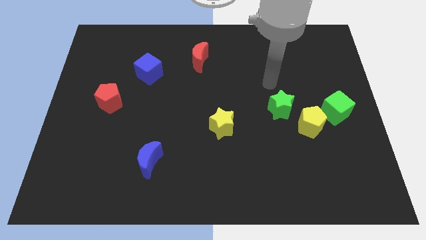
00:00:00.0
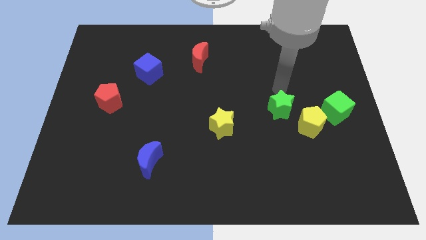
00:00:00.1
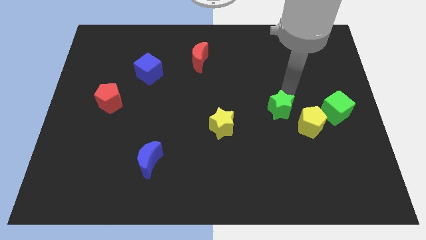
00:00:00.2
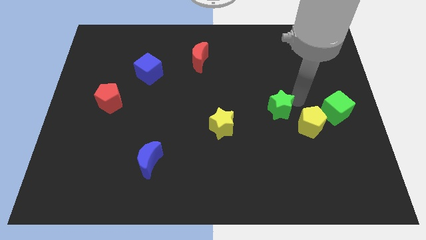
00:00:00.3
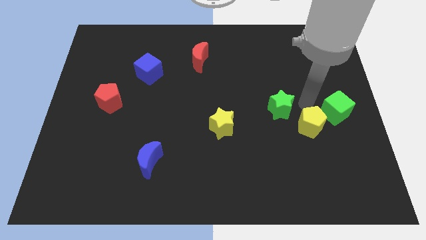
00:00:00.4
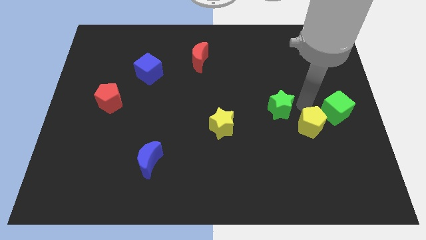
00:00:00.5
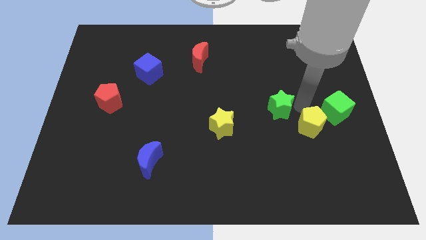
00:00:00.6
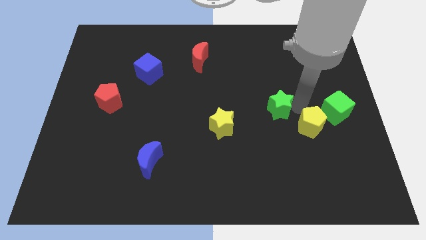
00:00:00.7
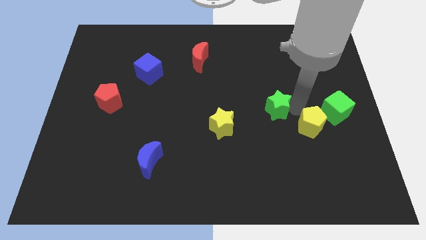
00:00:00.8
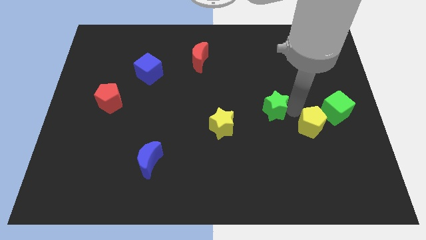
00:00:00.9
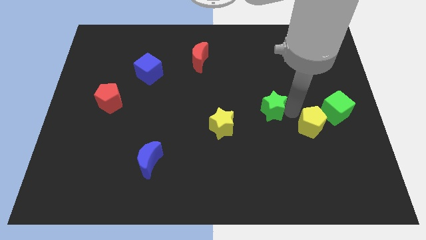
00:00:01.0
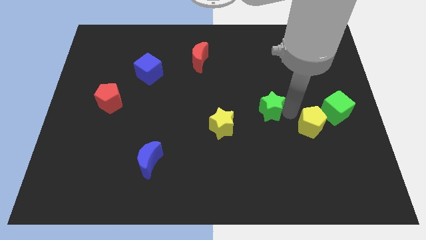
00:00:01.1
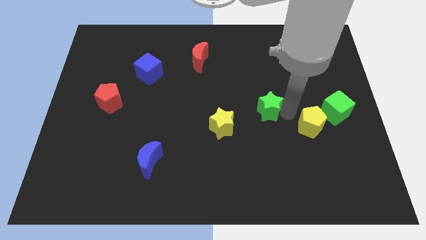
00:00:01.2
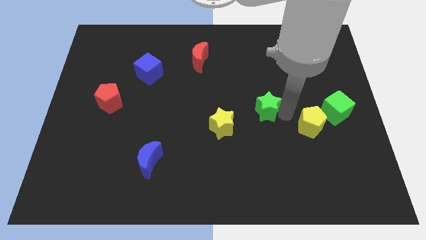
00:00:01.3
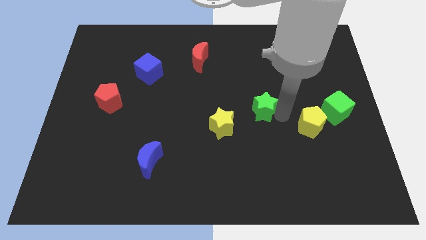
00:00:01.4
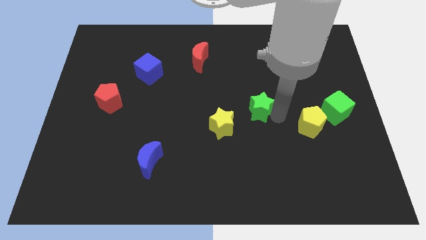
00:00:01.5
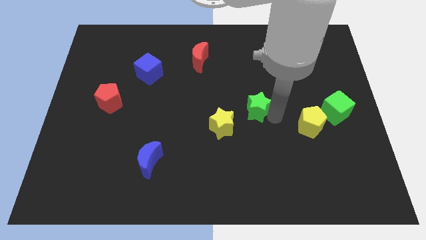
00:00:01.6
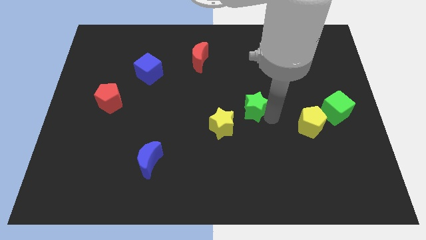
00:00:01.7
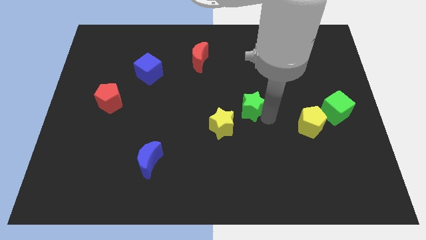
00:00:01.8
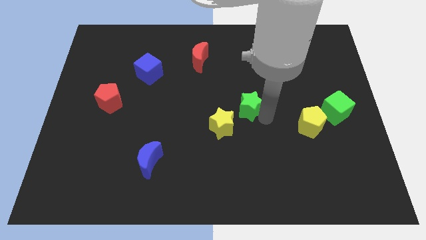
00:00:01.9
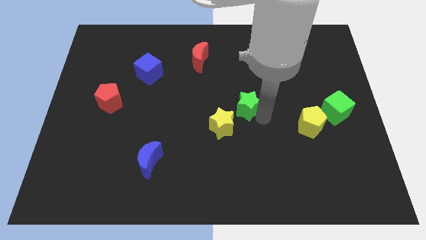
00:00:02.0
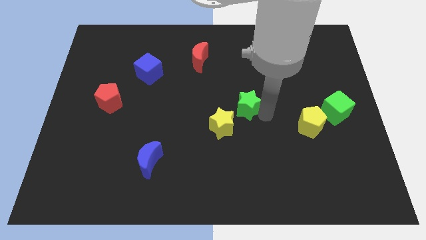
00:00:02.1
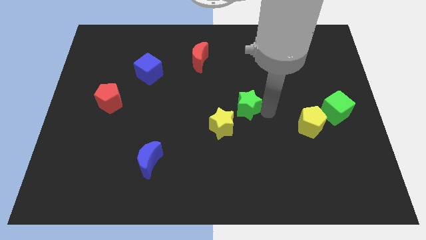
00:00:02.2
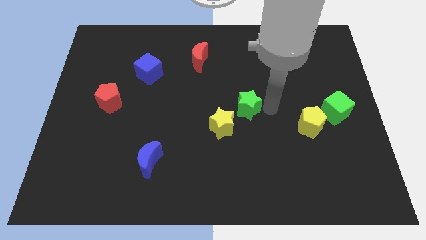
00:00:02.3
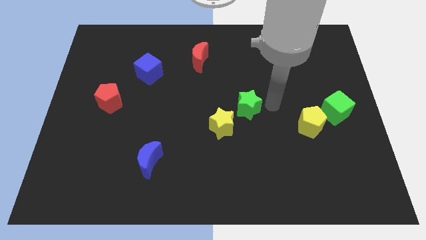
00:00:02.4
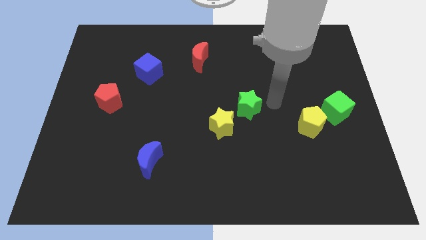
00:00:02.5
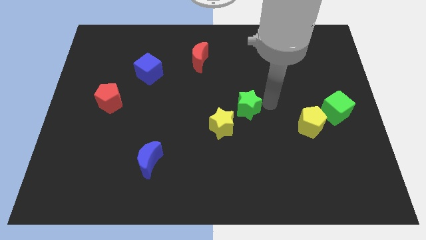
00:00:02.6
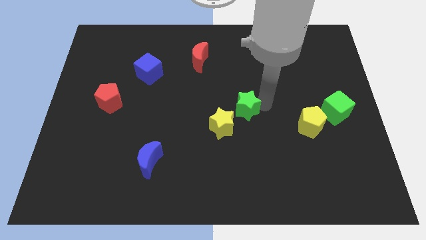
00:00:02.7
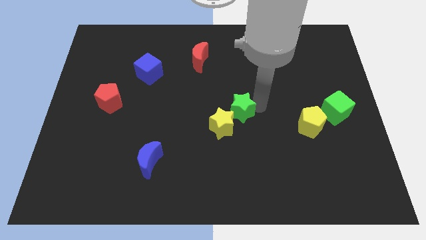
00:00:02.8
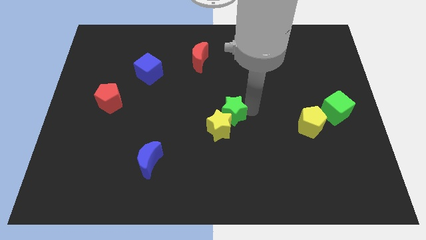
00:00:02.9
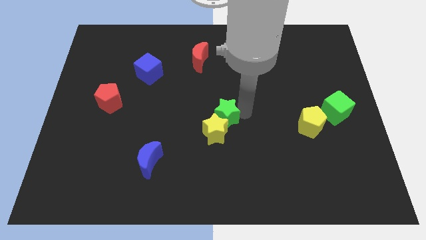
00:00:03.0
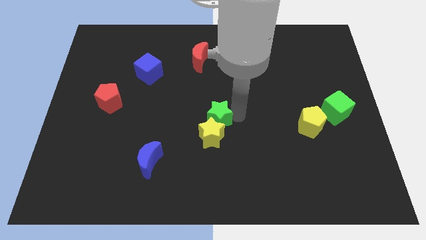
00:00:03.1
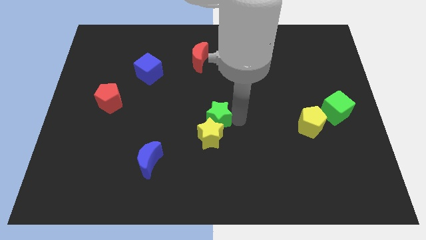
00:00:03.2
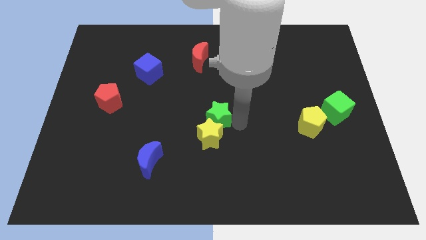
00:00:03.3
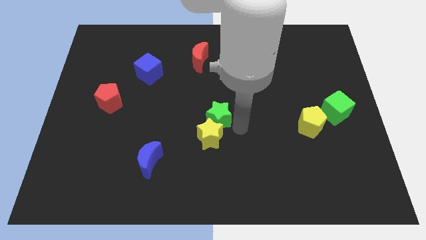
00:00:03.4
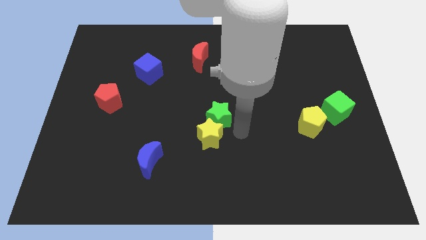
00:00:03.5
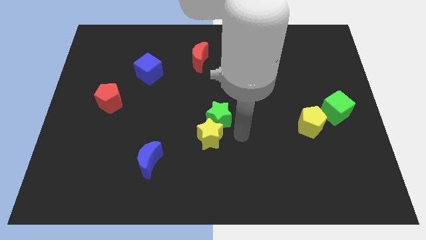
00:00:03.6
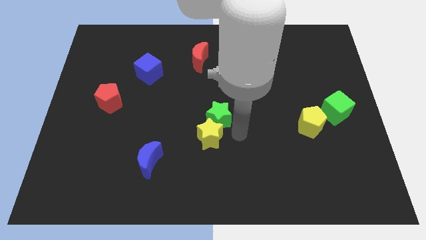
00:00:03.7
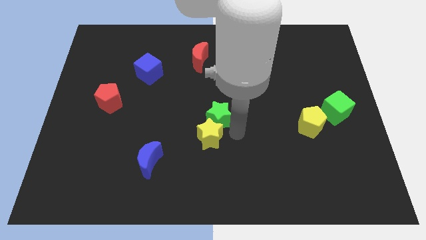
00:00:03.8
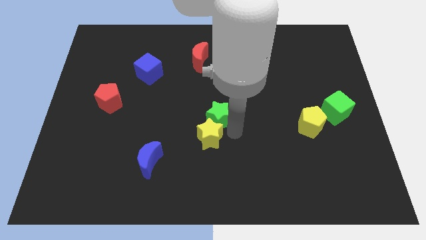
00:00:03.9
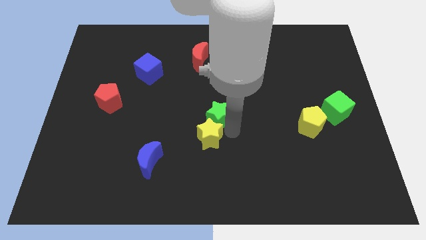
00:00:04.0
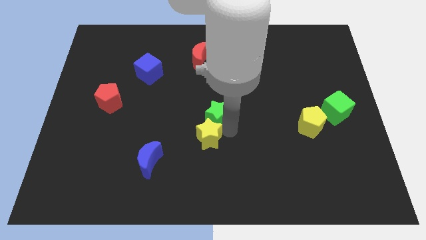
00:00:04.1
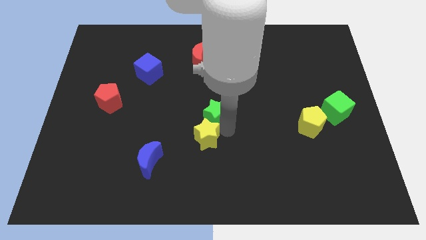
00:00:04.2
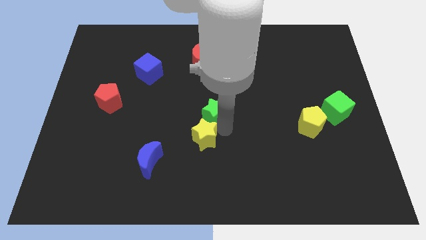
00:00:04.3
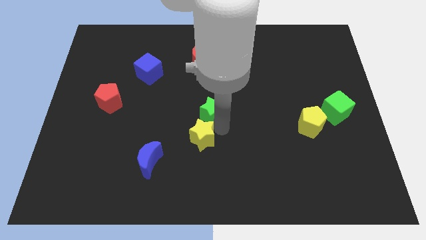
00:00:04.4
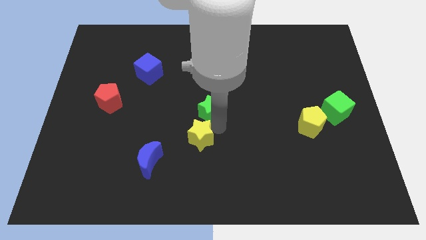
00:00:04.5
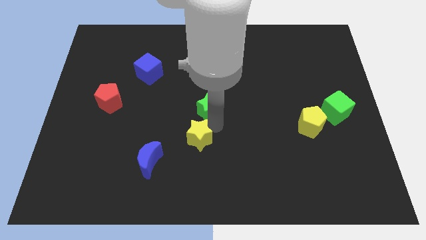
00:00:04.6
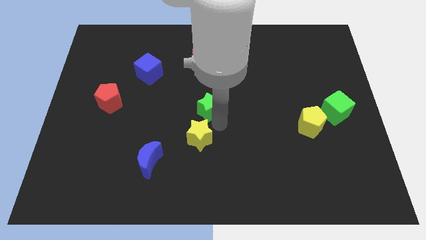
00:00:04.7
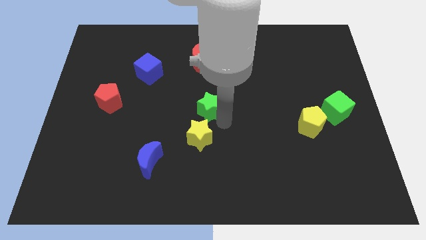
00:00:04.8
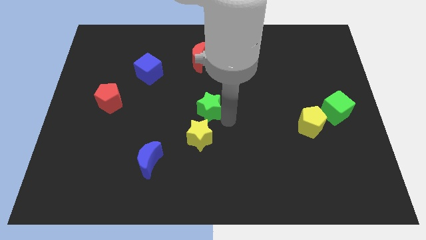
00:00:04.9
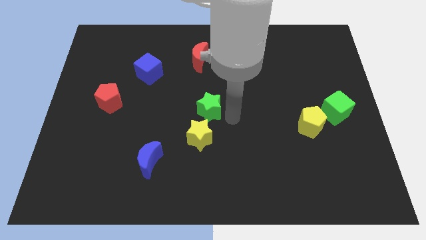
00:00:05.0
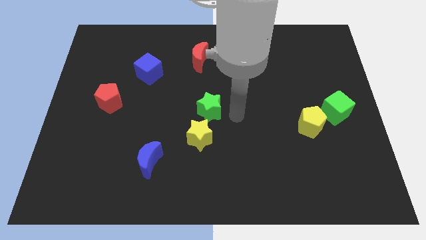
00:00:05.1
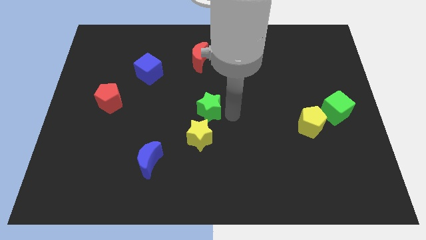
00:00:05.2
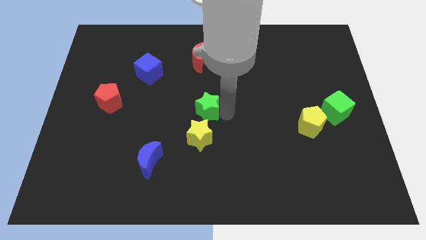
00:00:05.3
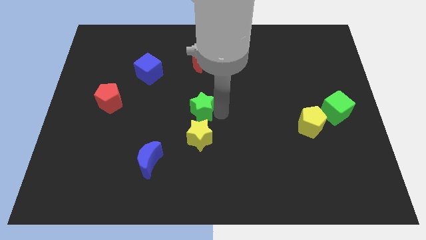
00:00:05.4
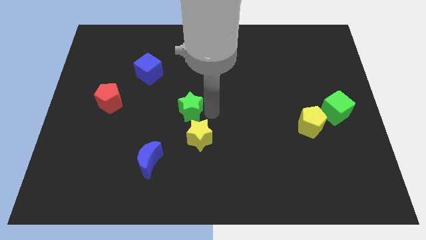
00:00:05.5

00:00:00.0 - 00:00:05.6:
slide the green star to the left

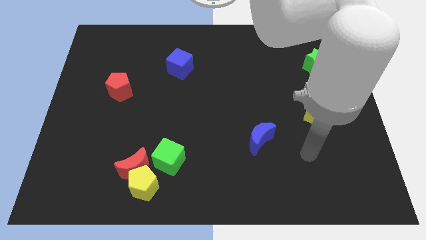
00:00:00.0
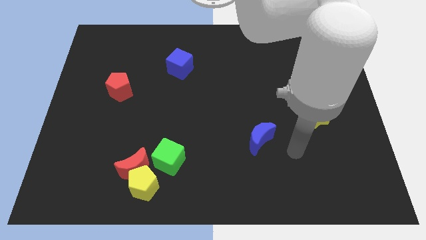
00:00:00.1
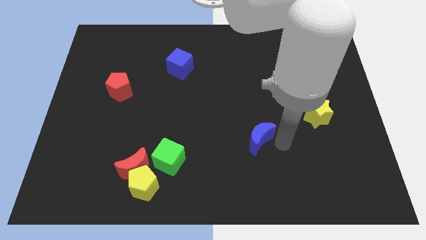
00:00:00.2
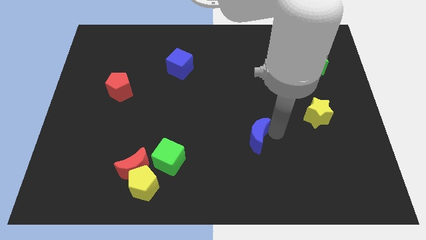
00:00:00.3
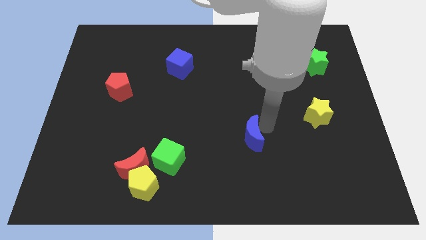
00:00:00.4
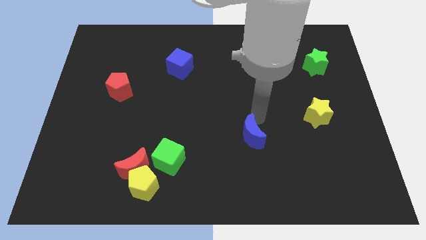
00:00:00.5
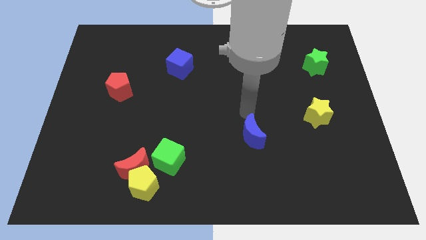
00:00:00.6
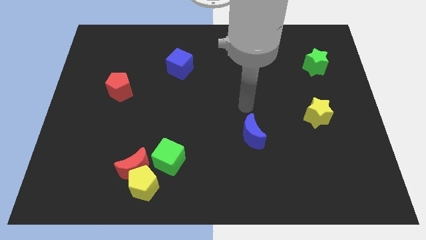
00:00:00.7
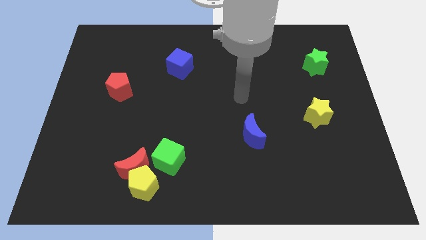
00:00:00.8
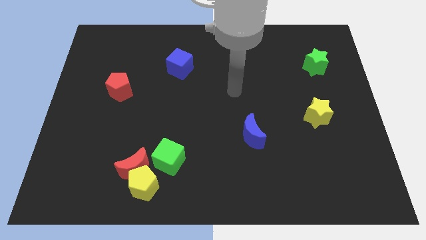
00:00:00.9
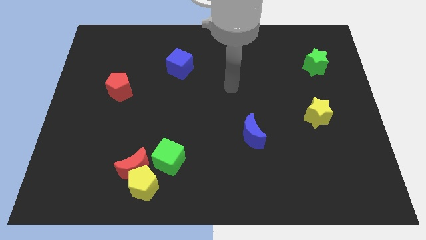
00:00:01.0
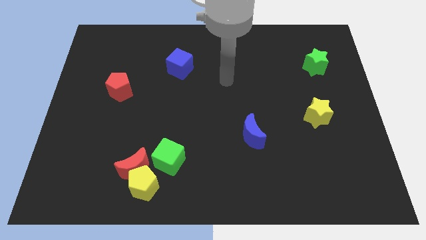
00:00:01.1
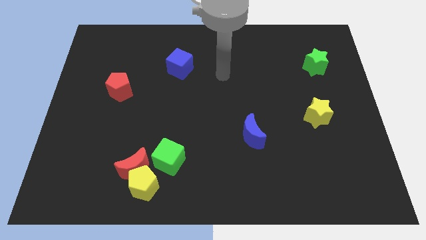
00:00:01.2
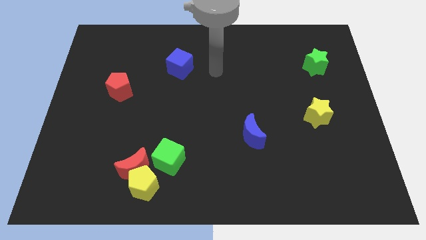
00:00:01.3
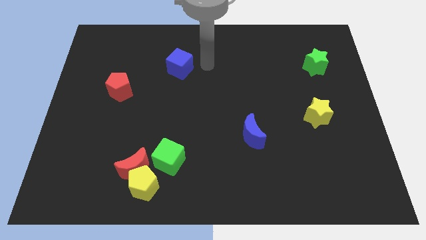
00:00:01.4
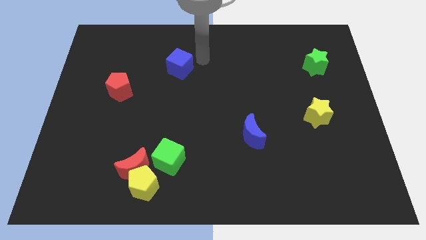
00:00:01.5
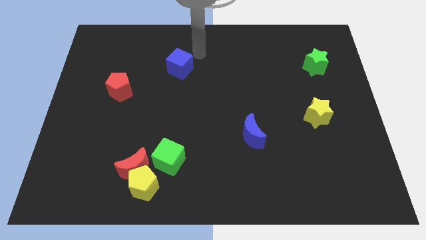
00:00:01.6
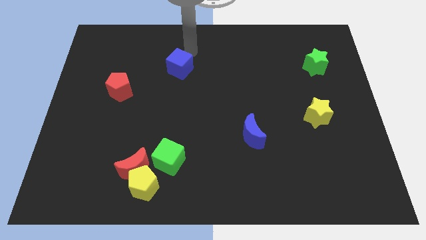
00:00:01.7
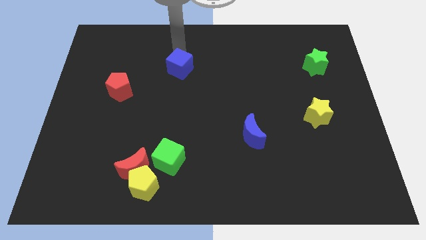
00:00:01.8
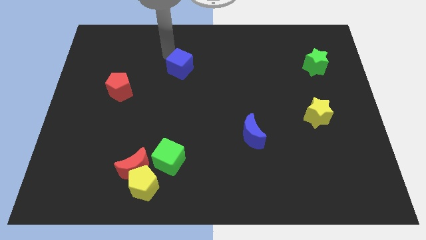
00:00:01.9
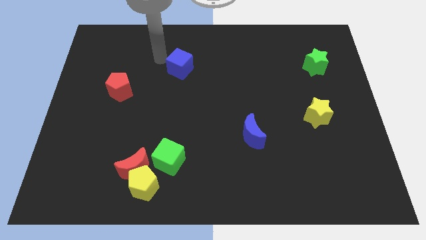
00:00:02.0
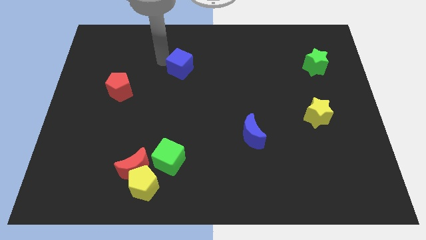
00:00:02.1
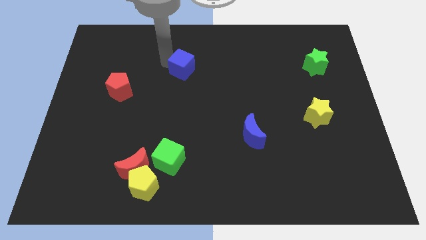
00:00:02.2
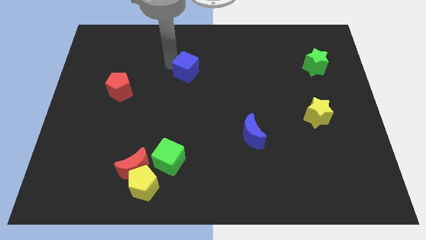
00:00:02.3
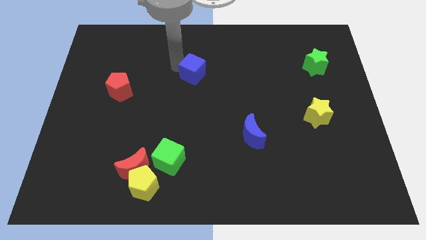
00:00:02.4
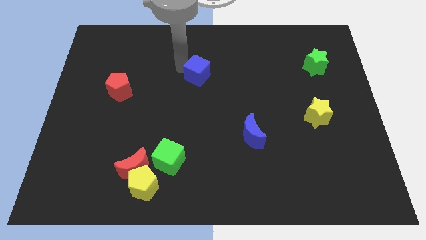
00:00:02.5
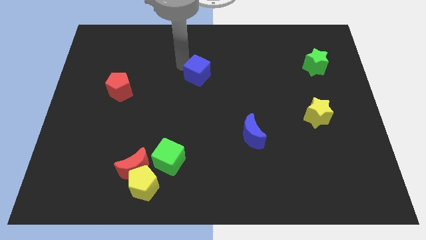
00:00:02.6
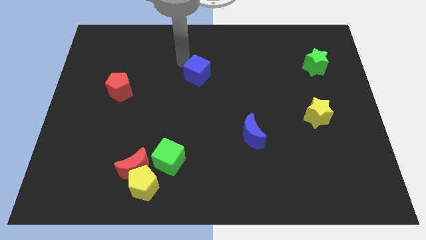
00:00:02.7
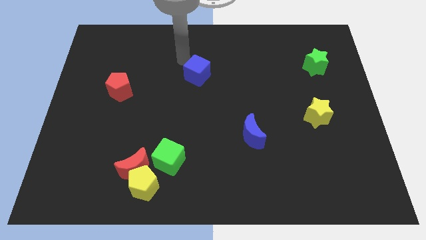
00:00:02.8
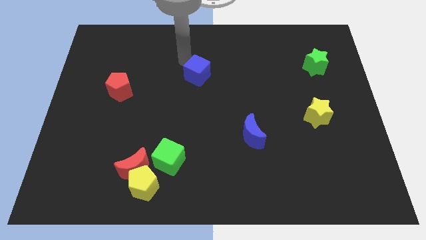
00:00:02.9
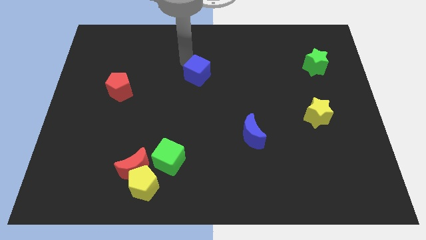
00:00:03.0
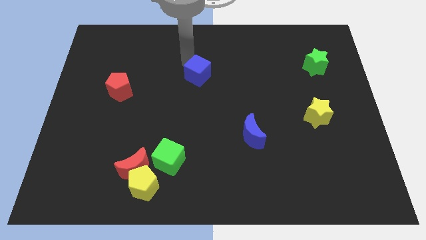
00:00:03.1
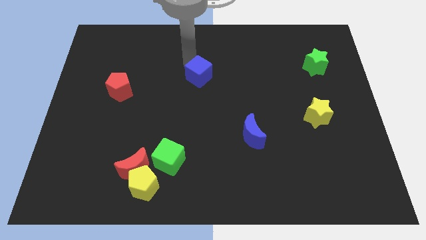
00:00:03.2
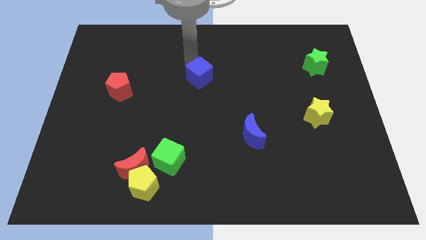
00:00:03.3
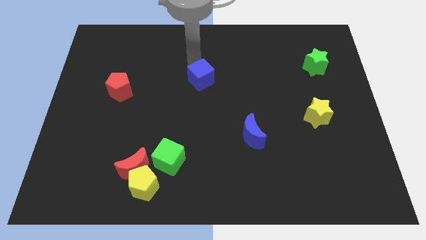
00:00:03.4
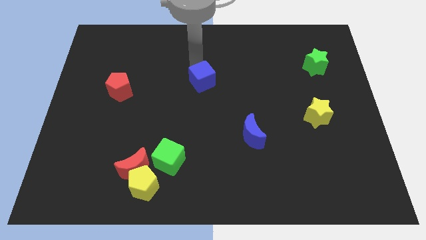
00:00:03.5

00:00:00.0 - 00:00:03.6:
push the blue cube downwards and right diagonally a bit
